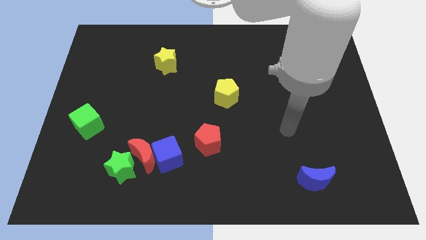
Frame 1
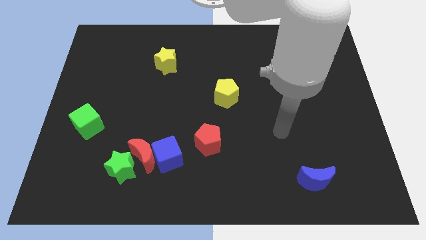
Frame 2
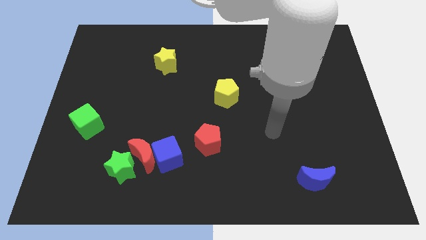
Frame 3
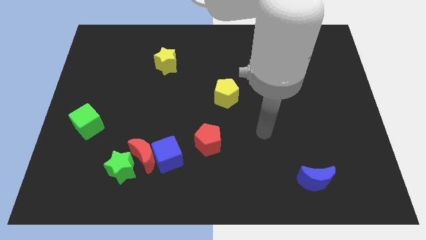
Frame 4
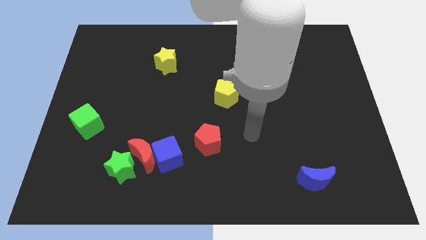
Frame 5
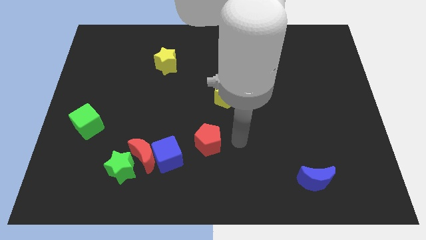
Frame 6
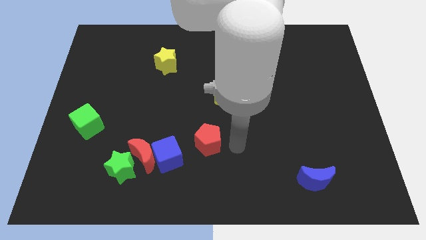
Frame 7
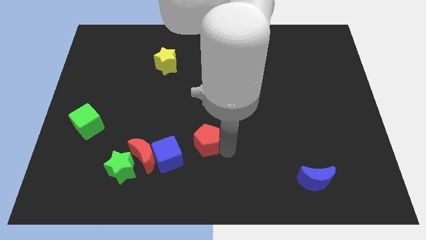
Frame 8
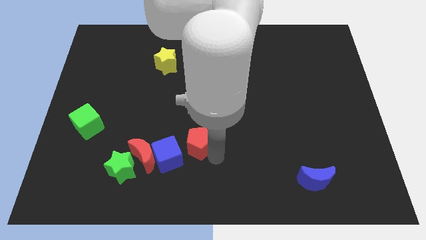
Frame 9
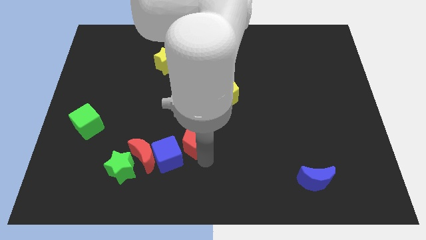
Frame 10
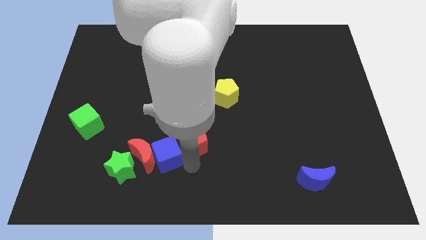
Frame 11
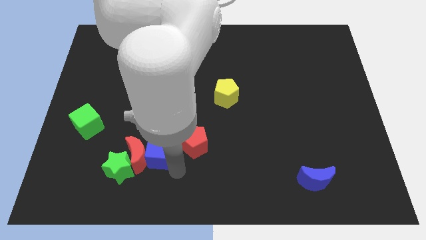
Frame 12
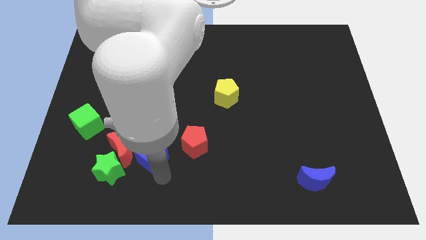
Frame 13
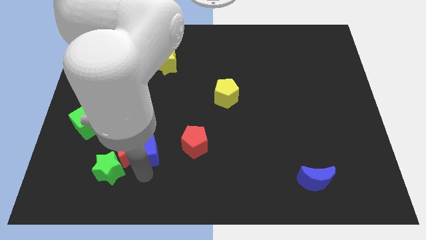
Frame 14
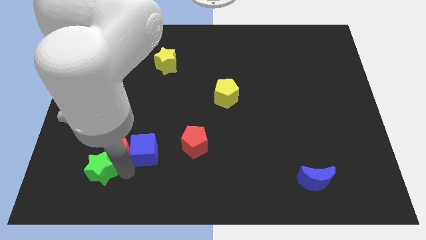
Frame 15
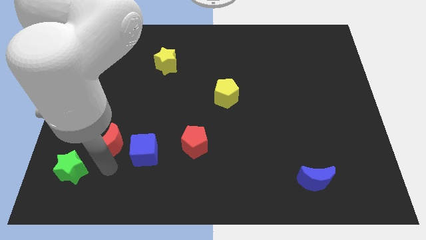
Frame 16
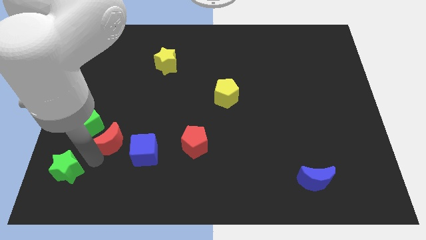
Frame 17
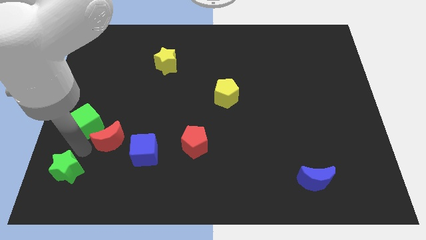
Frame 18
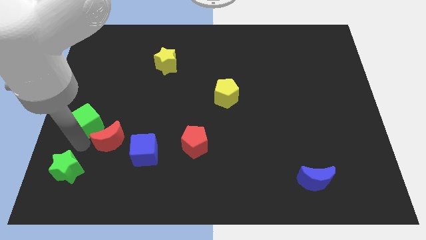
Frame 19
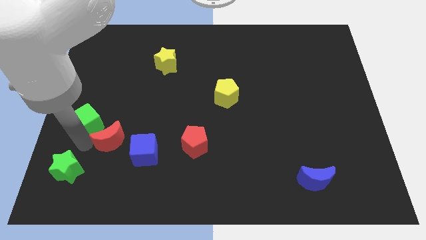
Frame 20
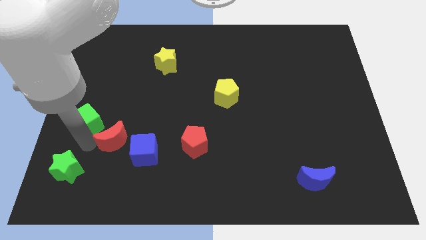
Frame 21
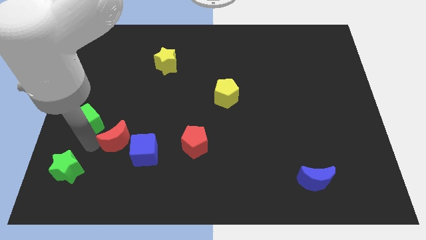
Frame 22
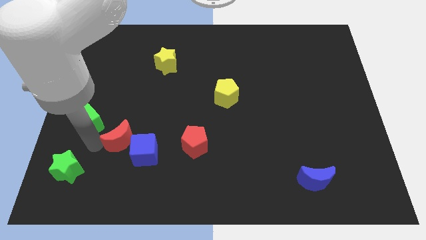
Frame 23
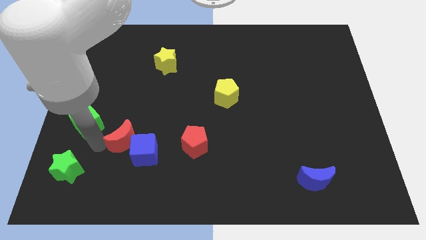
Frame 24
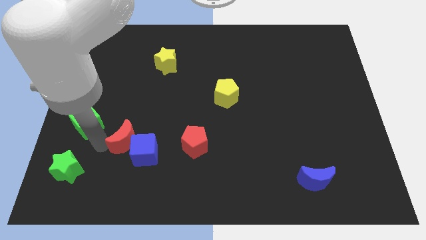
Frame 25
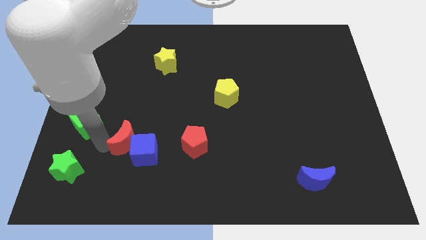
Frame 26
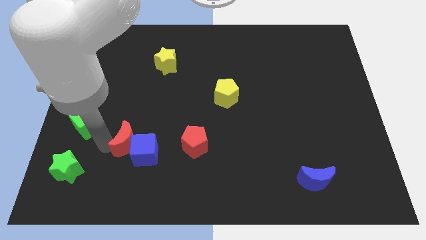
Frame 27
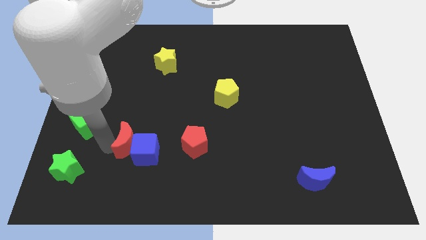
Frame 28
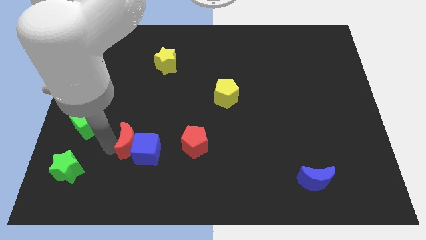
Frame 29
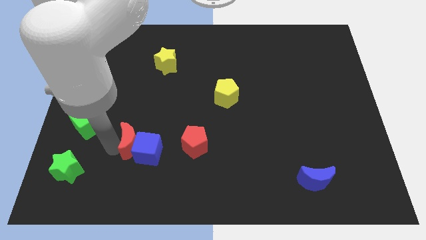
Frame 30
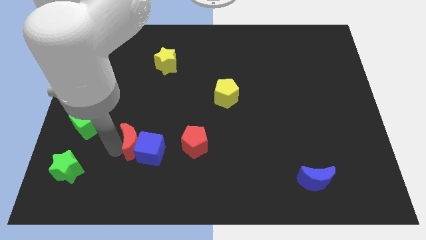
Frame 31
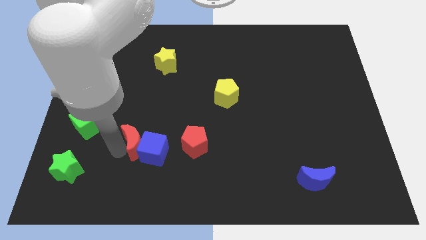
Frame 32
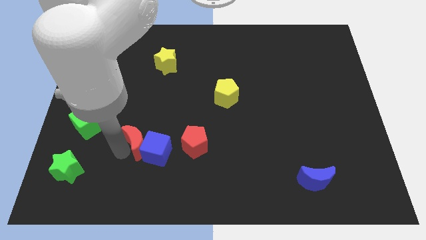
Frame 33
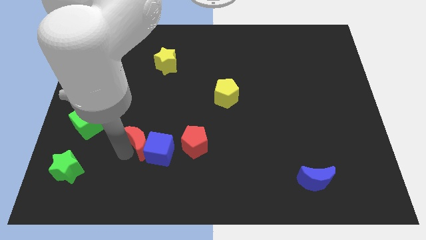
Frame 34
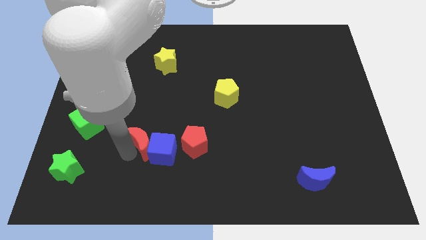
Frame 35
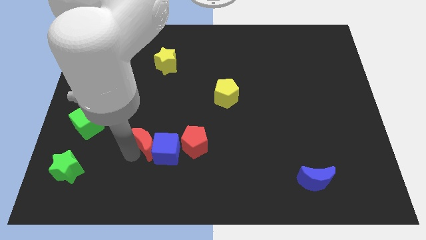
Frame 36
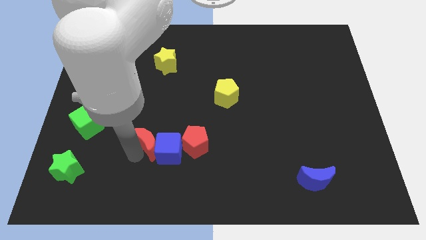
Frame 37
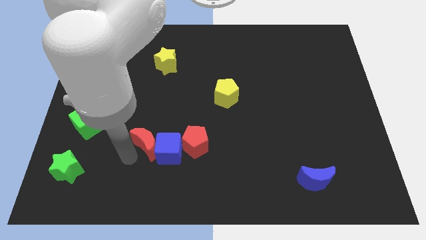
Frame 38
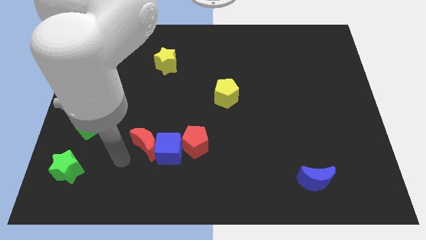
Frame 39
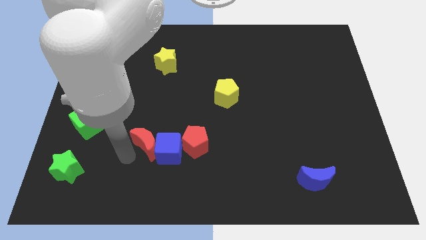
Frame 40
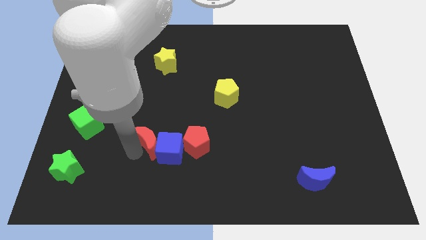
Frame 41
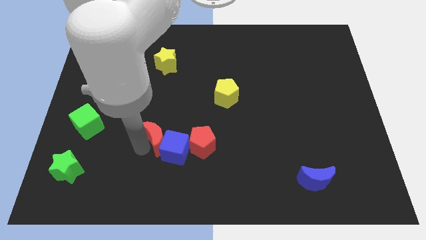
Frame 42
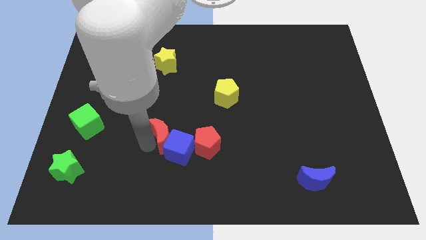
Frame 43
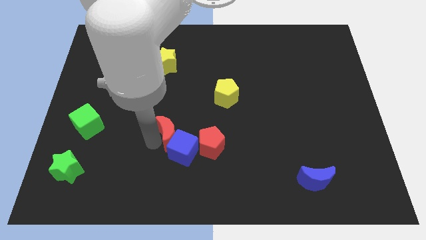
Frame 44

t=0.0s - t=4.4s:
separate the red moon from the blue cube and green star

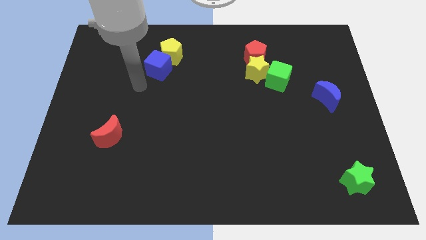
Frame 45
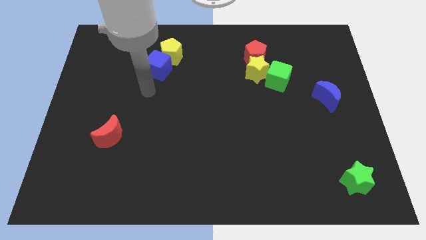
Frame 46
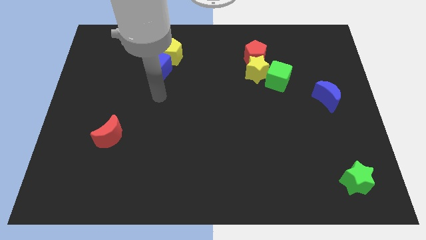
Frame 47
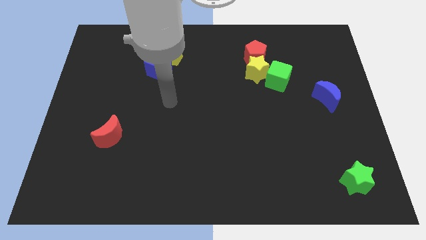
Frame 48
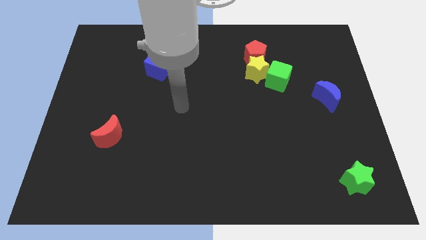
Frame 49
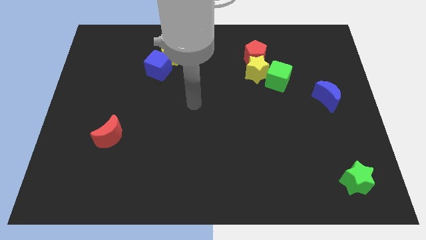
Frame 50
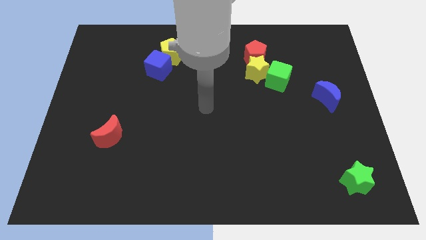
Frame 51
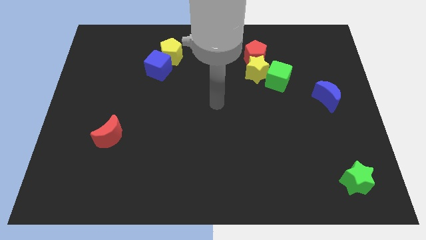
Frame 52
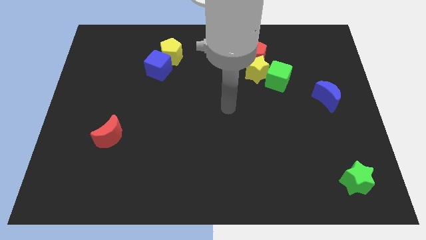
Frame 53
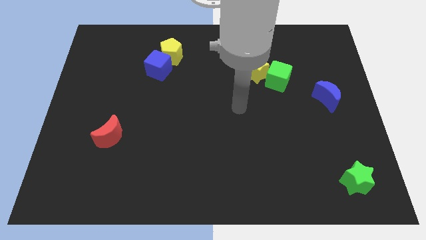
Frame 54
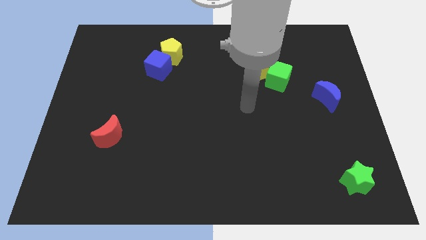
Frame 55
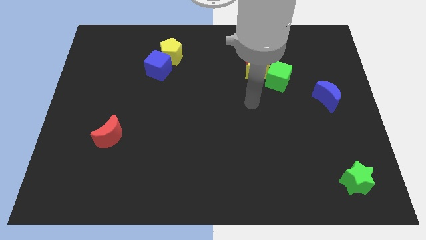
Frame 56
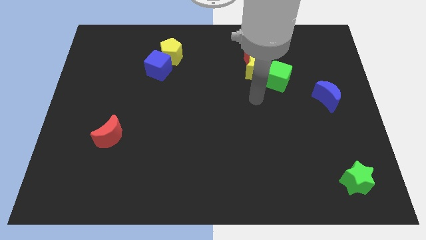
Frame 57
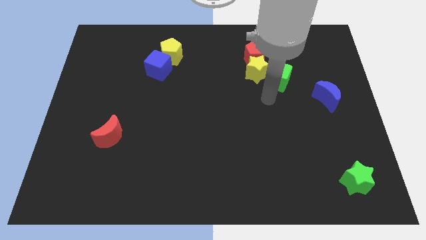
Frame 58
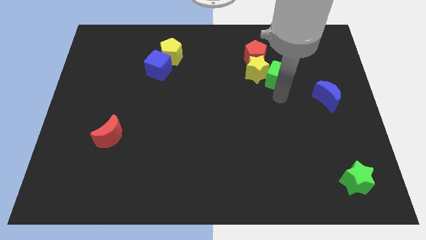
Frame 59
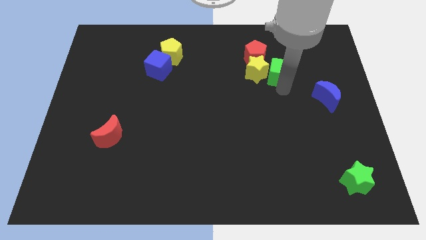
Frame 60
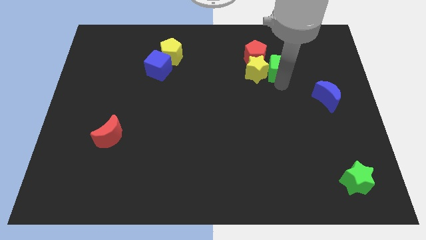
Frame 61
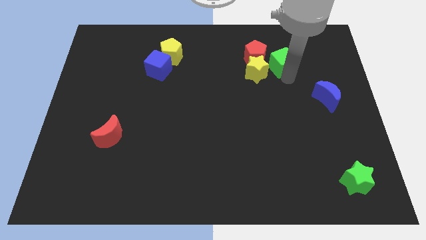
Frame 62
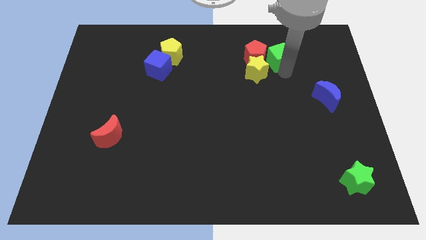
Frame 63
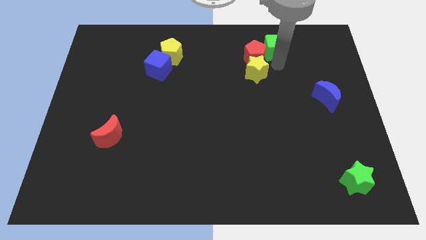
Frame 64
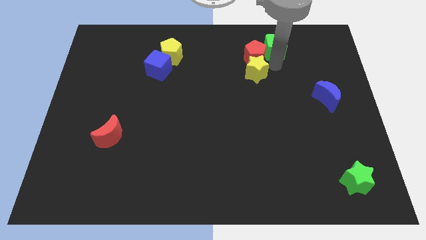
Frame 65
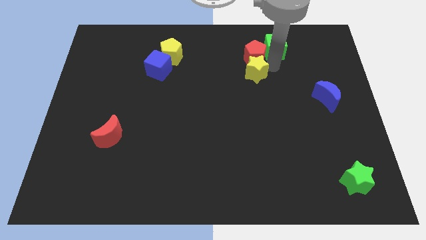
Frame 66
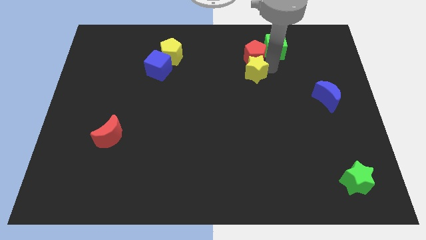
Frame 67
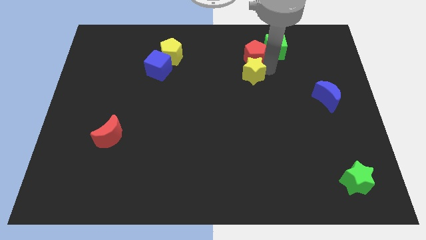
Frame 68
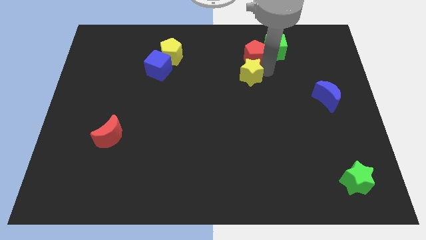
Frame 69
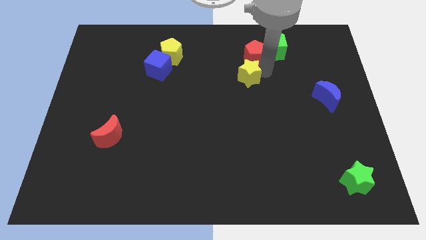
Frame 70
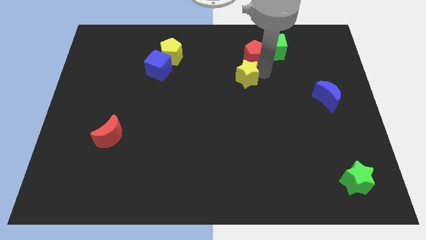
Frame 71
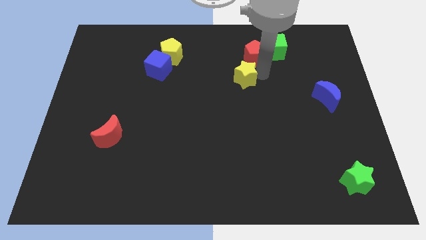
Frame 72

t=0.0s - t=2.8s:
move the yellow star away from the red pentagon and green cube

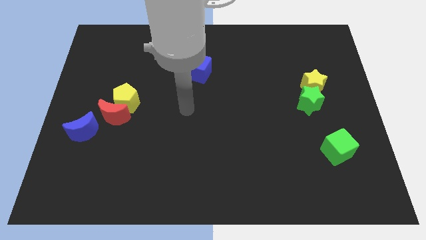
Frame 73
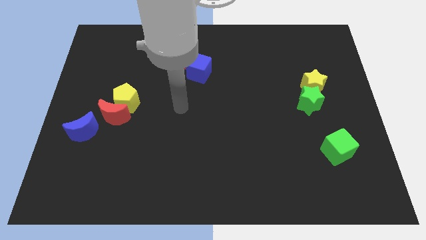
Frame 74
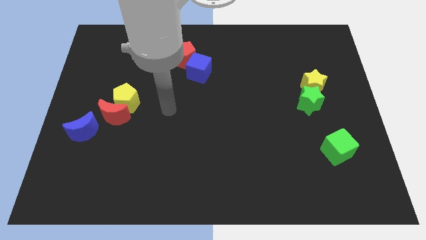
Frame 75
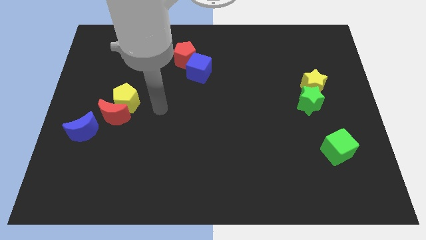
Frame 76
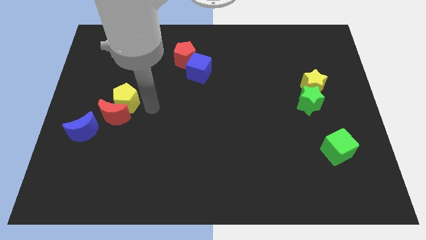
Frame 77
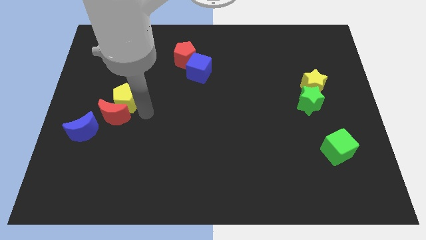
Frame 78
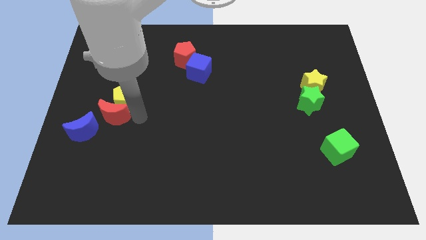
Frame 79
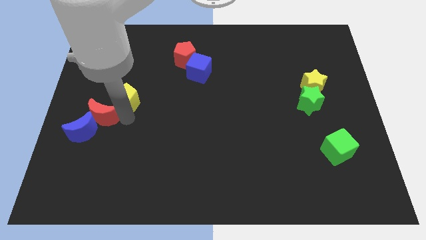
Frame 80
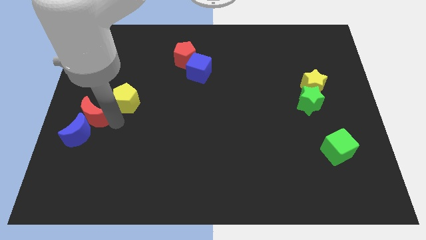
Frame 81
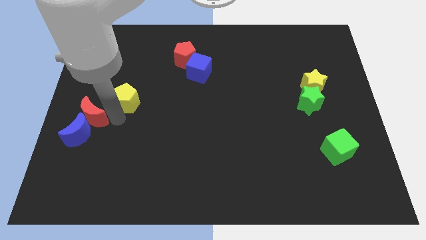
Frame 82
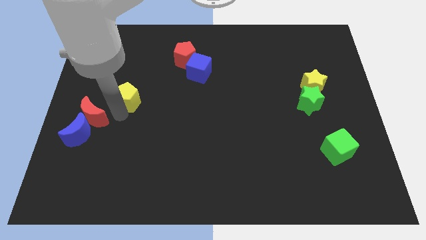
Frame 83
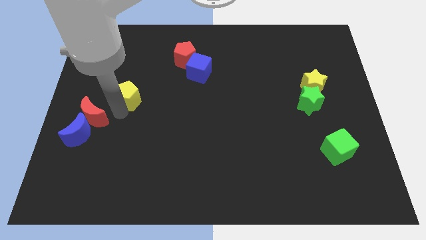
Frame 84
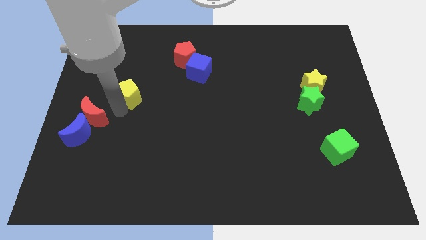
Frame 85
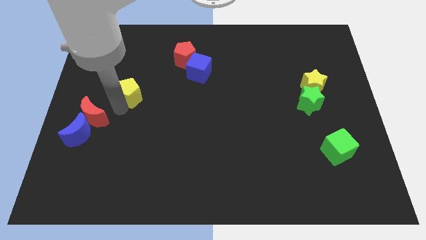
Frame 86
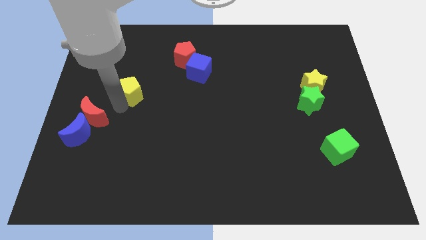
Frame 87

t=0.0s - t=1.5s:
separate the yellow pentagon from the red moon

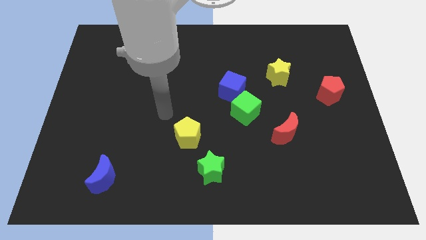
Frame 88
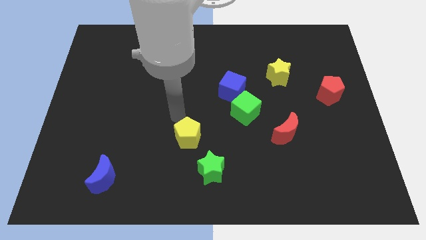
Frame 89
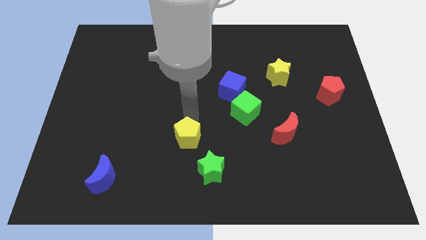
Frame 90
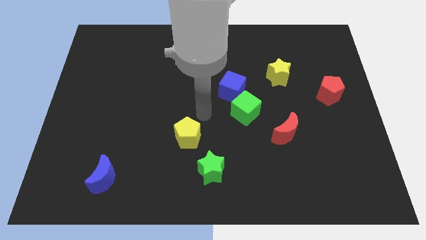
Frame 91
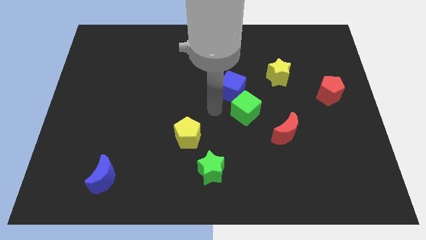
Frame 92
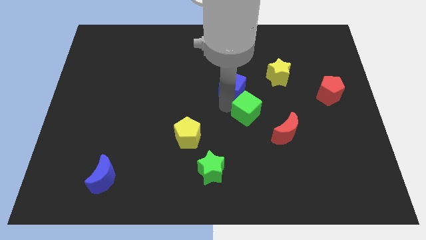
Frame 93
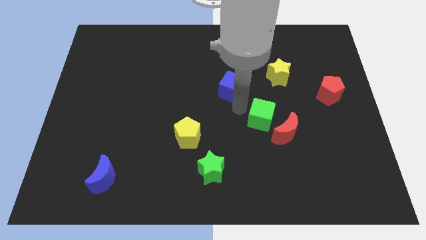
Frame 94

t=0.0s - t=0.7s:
move the blue cube away from the green cube
